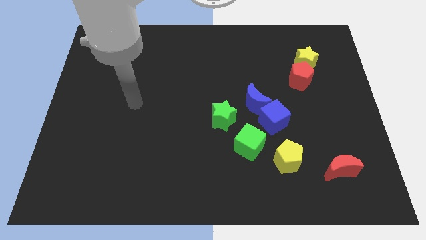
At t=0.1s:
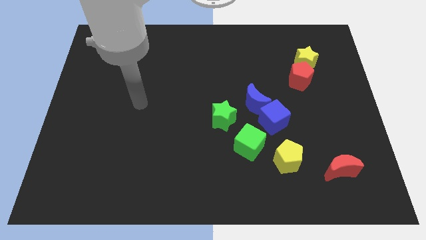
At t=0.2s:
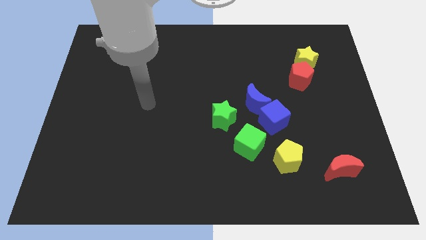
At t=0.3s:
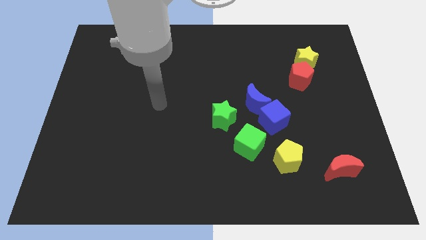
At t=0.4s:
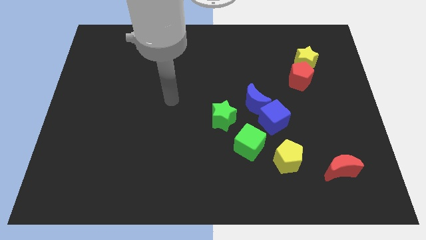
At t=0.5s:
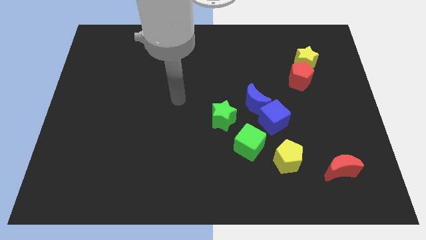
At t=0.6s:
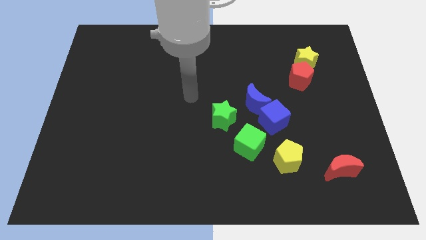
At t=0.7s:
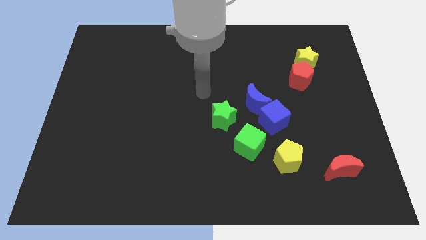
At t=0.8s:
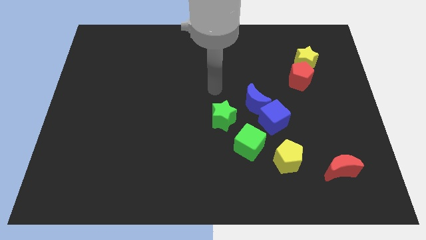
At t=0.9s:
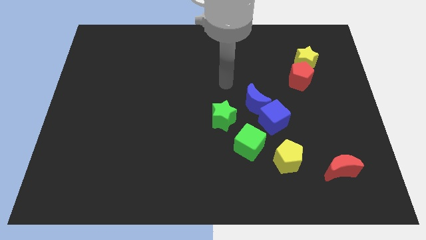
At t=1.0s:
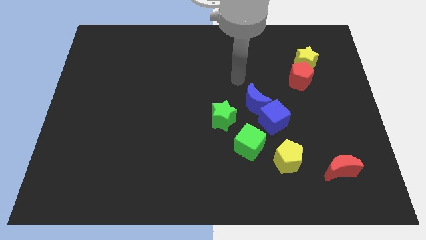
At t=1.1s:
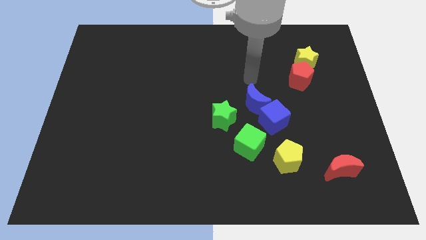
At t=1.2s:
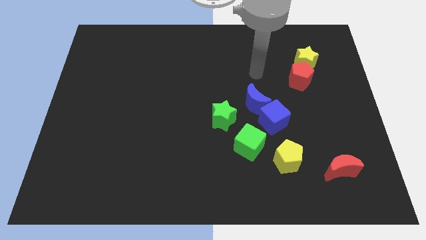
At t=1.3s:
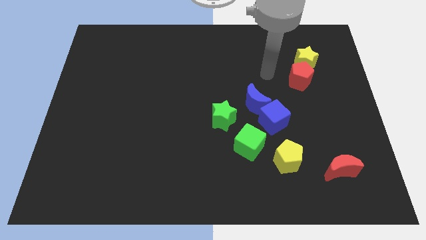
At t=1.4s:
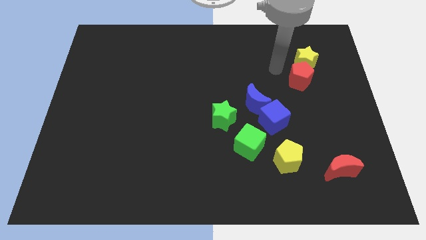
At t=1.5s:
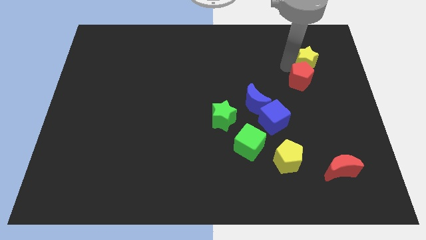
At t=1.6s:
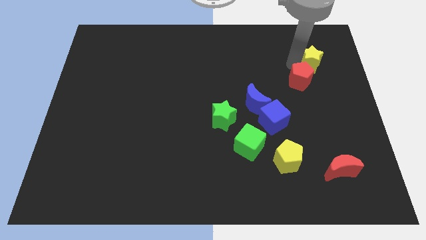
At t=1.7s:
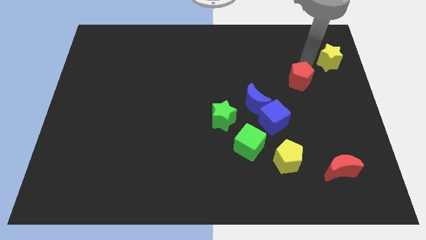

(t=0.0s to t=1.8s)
pull the red pentagon apart from the yellow star

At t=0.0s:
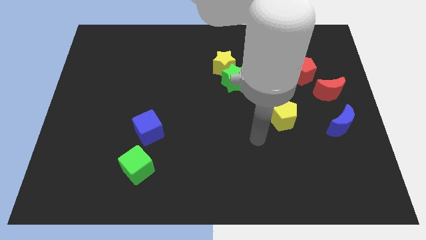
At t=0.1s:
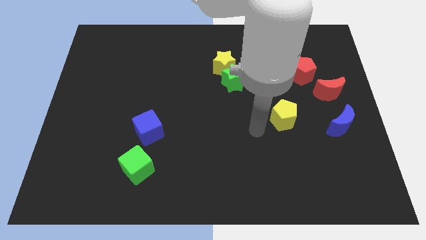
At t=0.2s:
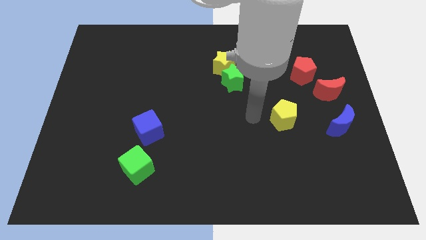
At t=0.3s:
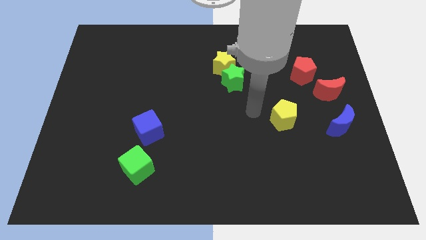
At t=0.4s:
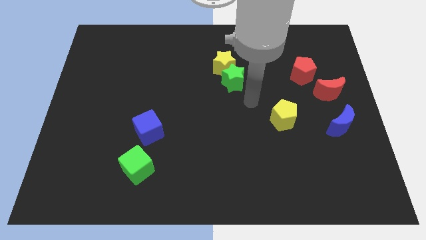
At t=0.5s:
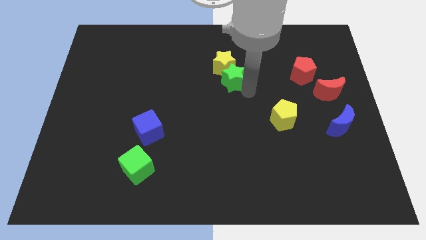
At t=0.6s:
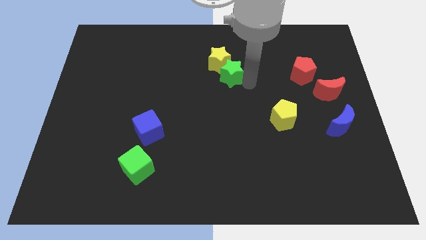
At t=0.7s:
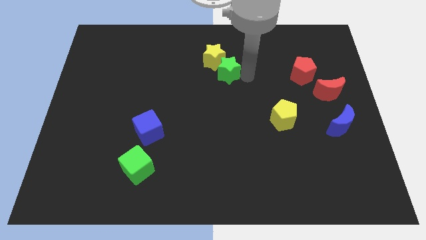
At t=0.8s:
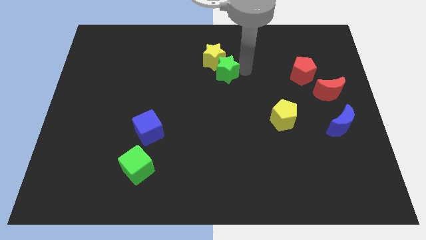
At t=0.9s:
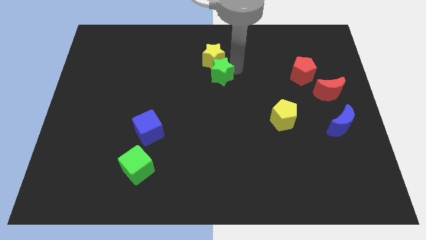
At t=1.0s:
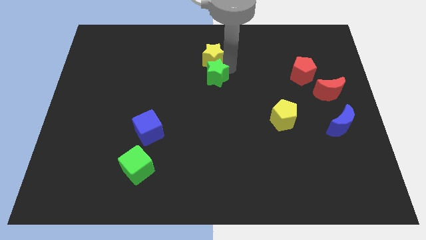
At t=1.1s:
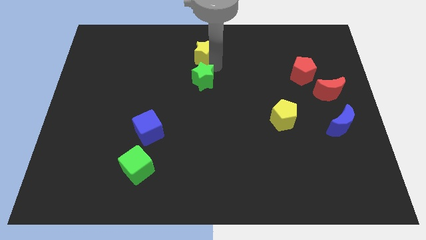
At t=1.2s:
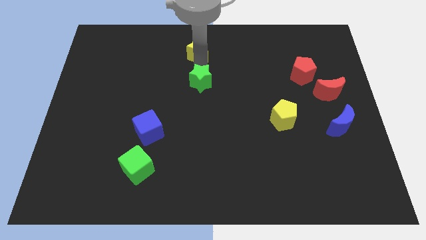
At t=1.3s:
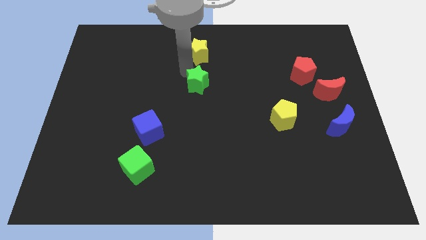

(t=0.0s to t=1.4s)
separate the green star from the yellow star

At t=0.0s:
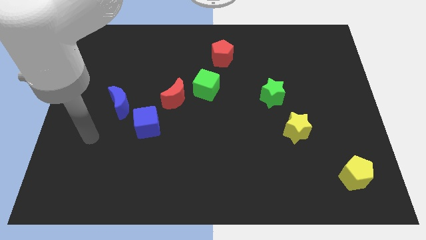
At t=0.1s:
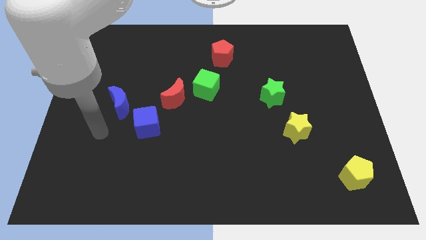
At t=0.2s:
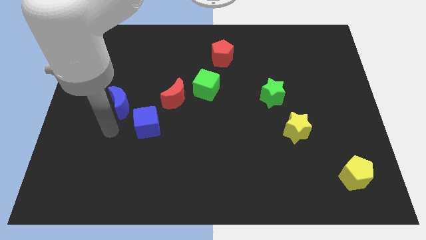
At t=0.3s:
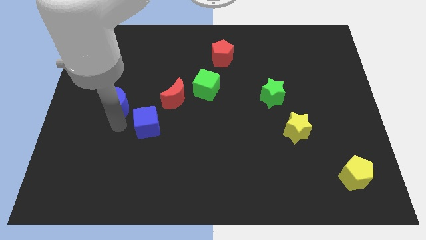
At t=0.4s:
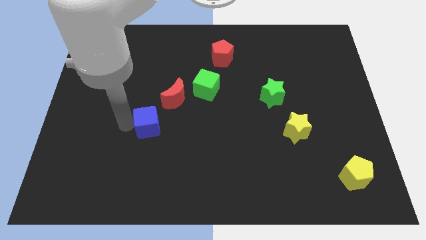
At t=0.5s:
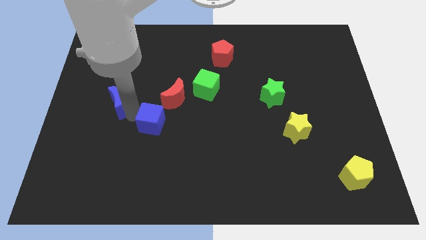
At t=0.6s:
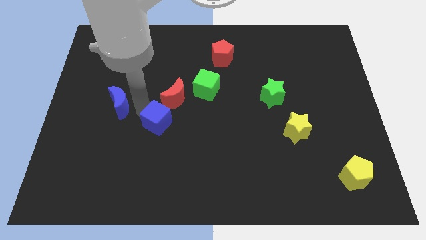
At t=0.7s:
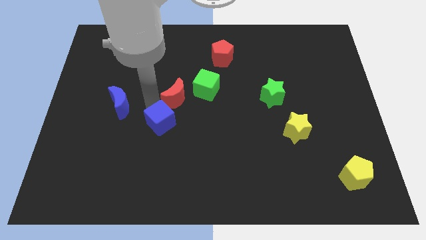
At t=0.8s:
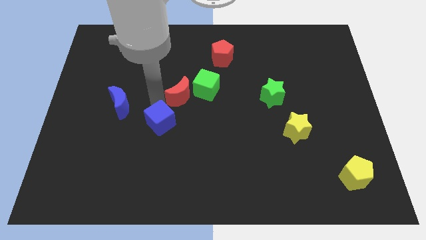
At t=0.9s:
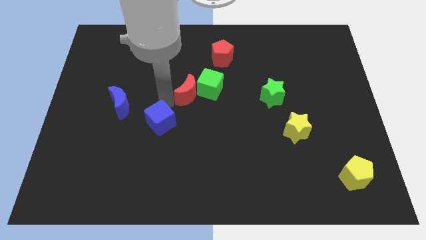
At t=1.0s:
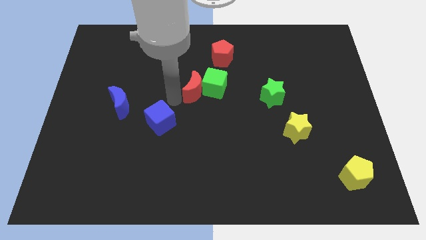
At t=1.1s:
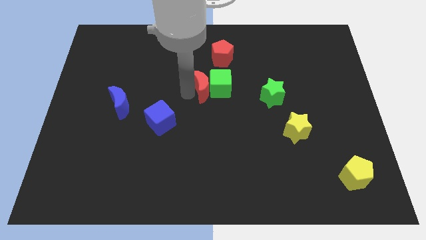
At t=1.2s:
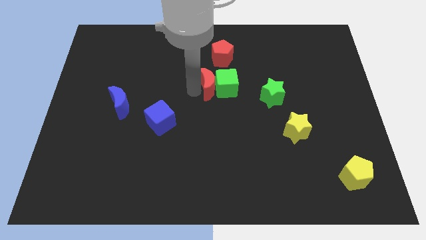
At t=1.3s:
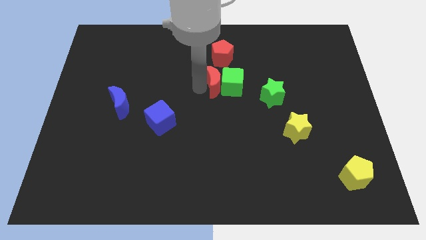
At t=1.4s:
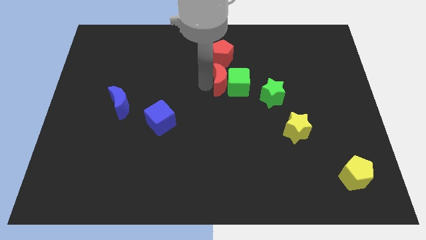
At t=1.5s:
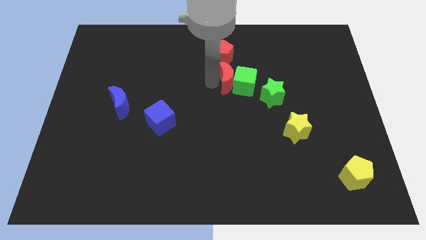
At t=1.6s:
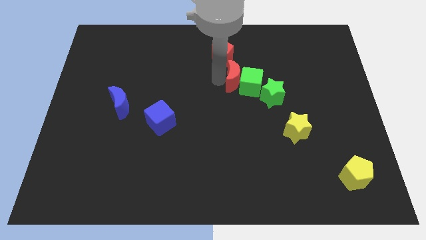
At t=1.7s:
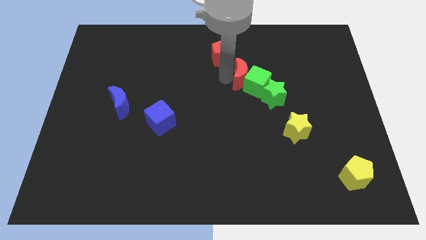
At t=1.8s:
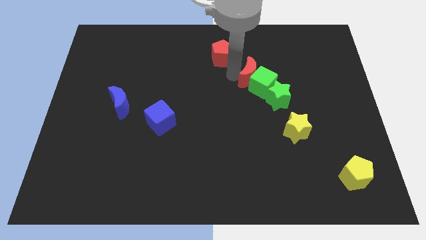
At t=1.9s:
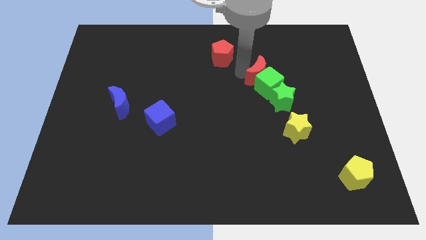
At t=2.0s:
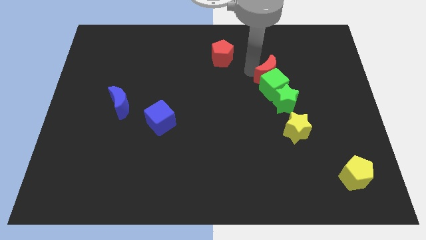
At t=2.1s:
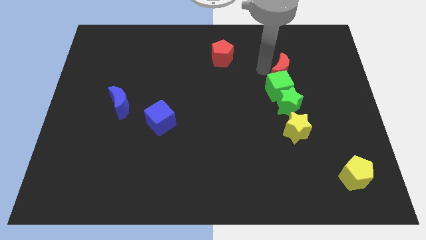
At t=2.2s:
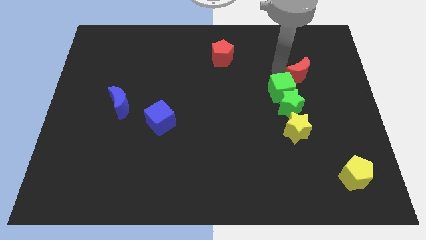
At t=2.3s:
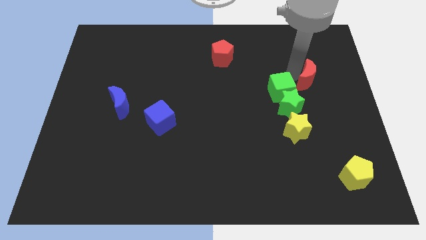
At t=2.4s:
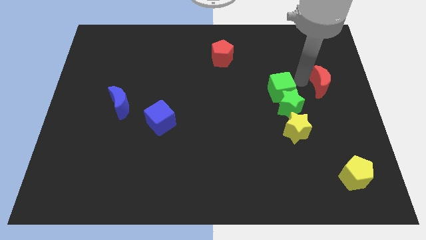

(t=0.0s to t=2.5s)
separate the green cube from the red moon

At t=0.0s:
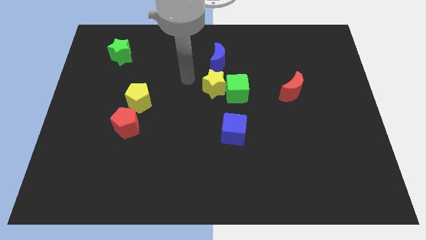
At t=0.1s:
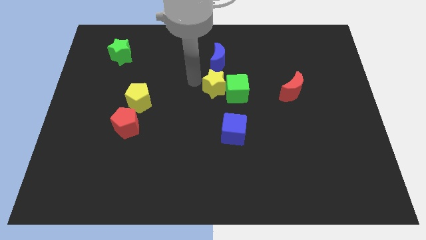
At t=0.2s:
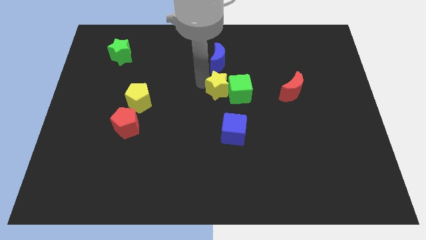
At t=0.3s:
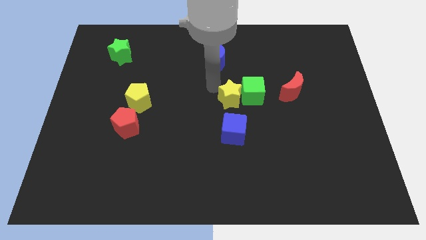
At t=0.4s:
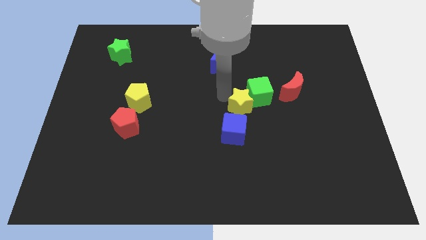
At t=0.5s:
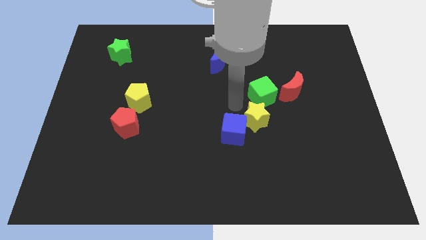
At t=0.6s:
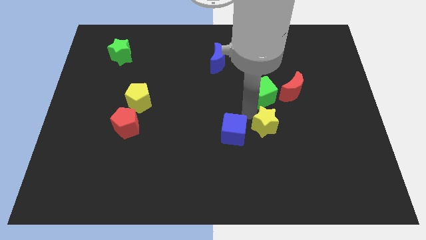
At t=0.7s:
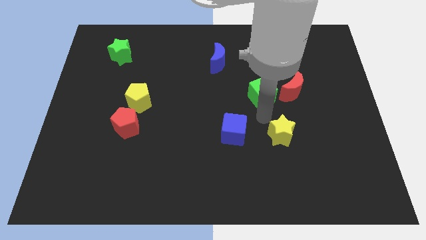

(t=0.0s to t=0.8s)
pull the green cube apart from the yellow star

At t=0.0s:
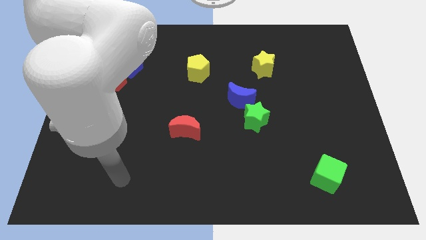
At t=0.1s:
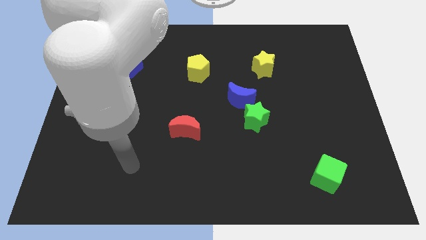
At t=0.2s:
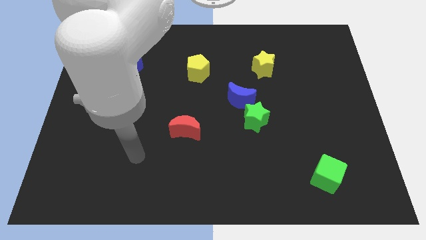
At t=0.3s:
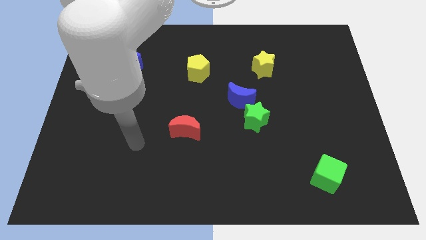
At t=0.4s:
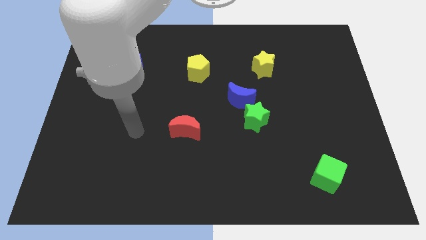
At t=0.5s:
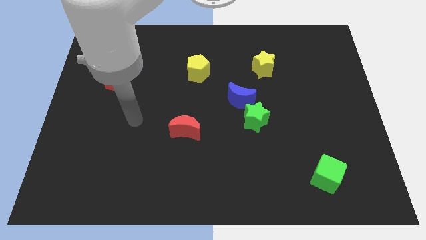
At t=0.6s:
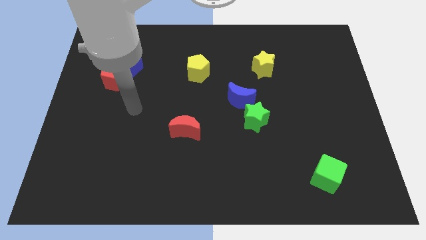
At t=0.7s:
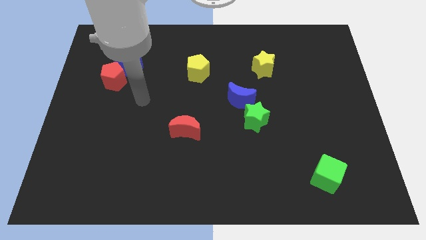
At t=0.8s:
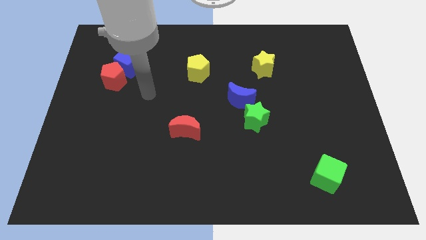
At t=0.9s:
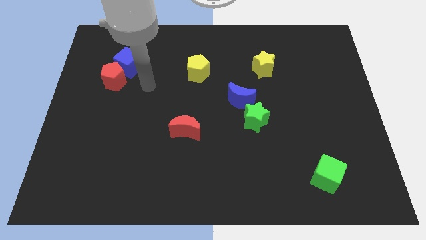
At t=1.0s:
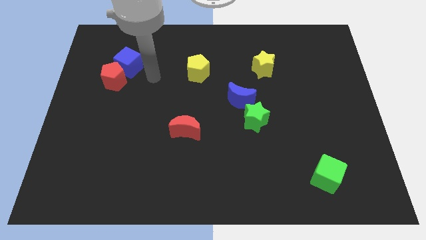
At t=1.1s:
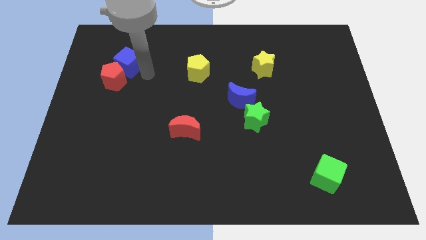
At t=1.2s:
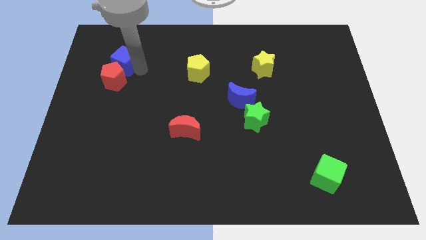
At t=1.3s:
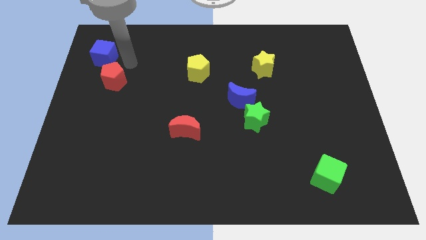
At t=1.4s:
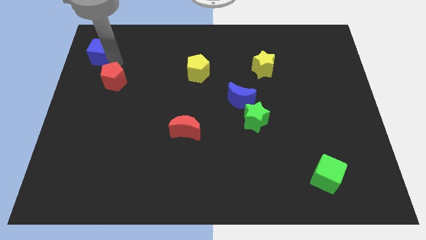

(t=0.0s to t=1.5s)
separate the red pentagon from the blue cube

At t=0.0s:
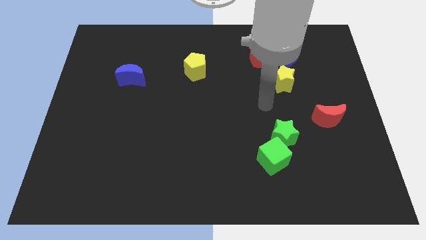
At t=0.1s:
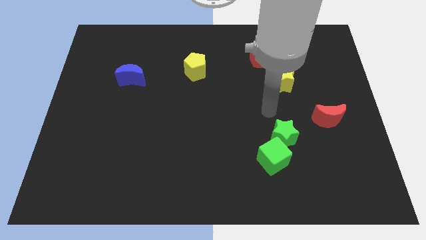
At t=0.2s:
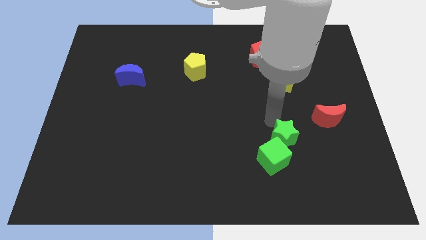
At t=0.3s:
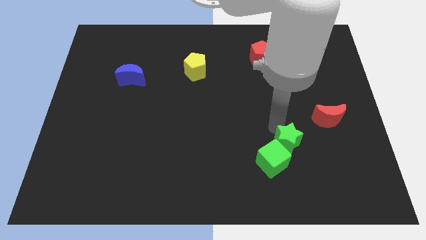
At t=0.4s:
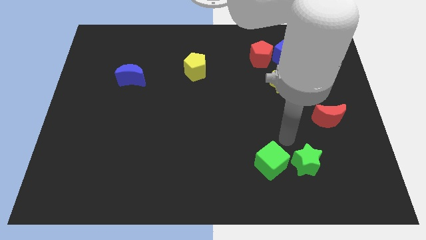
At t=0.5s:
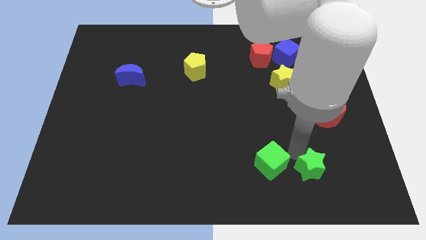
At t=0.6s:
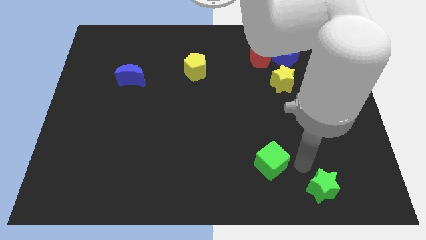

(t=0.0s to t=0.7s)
pull the green cube apart from the green star

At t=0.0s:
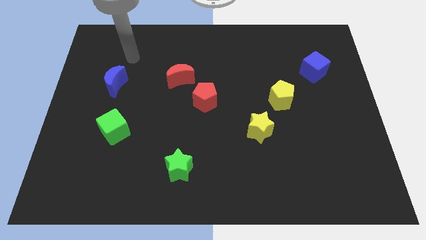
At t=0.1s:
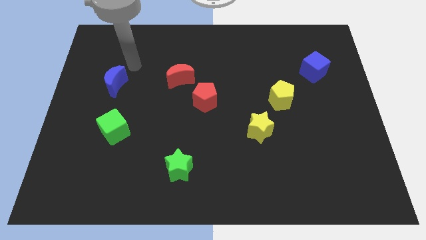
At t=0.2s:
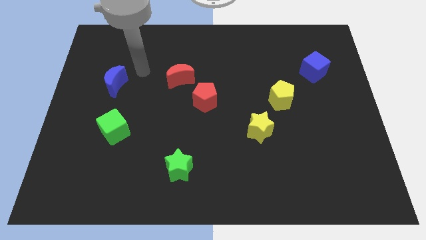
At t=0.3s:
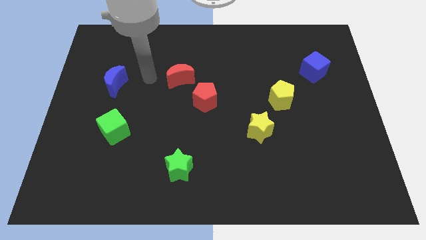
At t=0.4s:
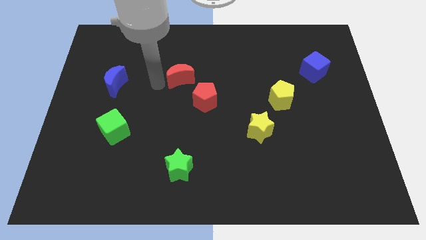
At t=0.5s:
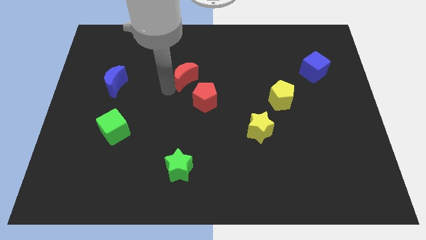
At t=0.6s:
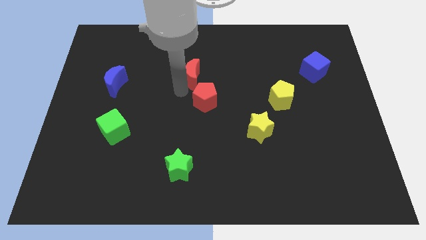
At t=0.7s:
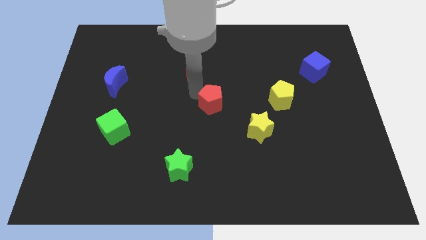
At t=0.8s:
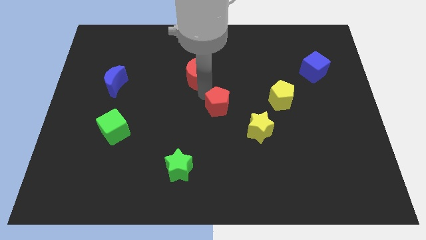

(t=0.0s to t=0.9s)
separate the red moon from the red pentagon
